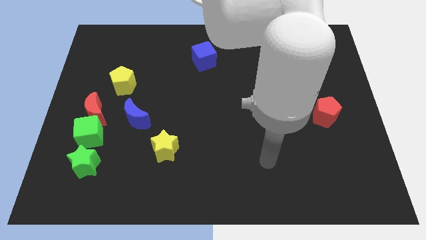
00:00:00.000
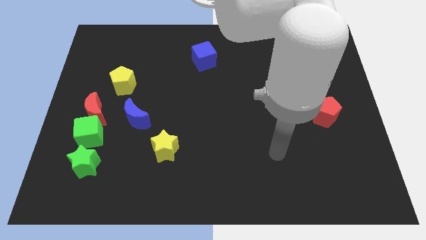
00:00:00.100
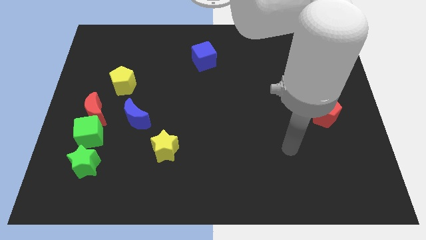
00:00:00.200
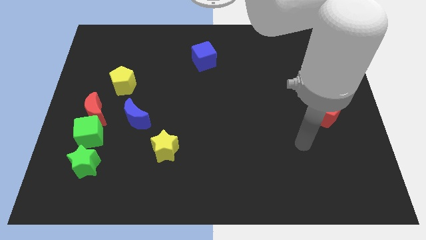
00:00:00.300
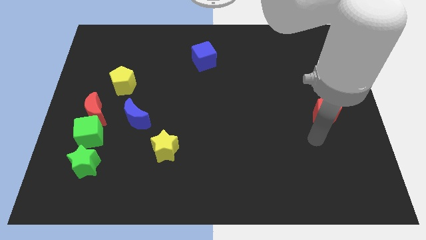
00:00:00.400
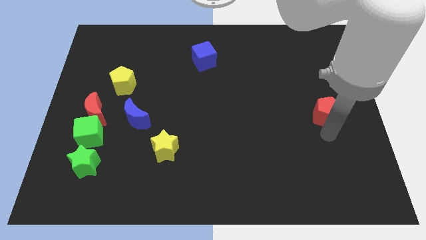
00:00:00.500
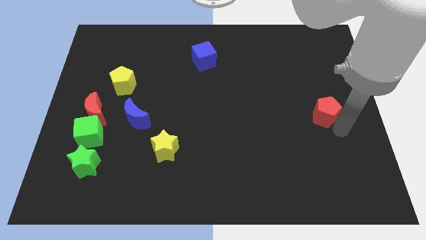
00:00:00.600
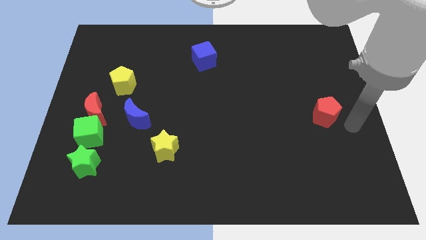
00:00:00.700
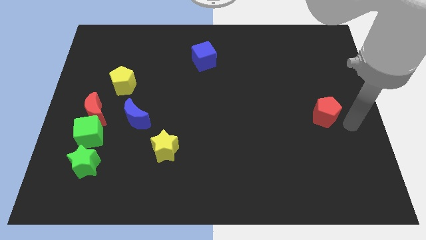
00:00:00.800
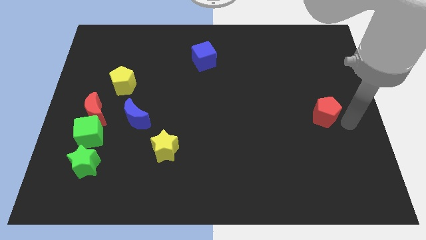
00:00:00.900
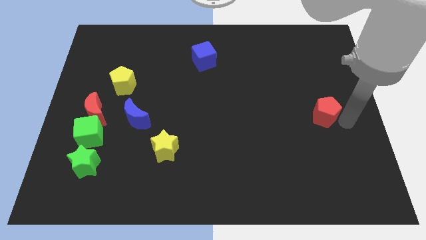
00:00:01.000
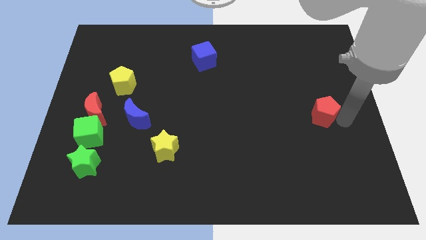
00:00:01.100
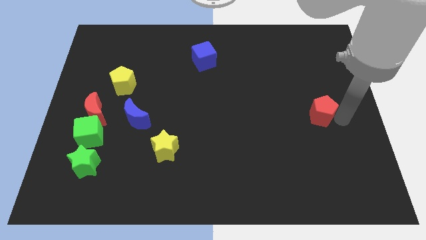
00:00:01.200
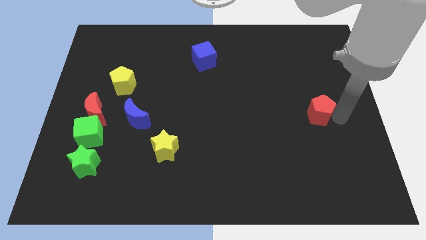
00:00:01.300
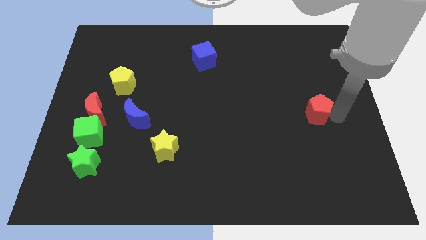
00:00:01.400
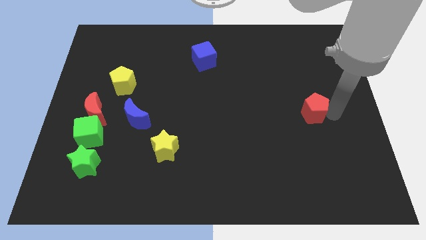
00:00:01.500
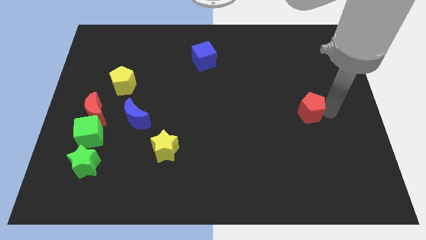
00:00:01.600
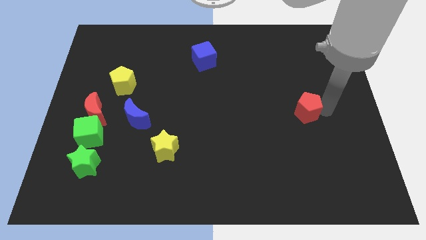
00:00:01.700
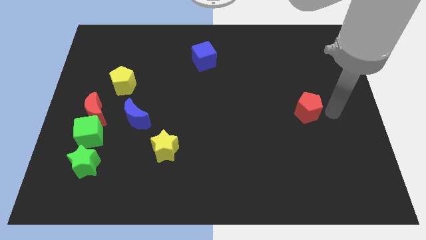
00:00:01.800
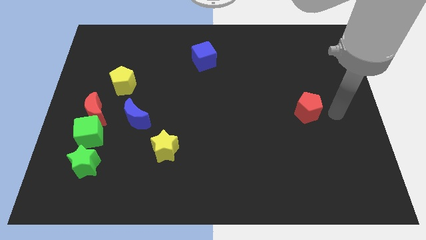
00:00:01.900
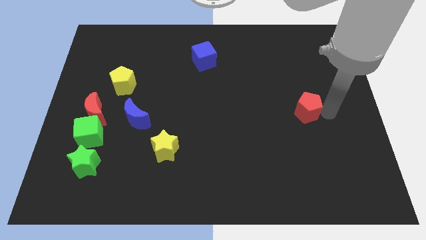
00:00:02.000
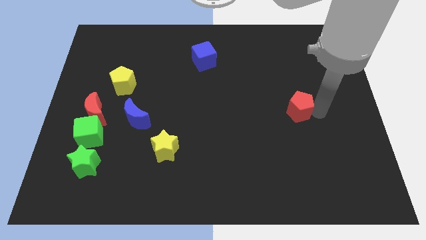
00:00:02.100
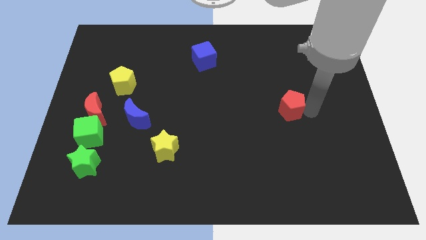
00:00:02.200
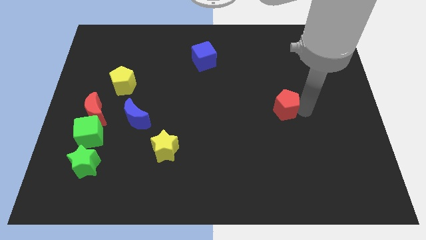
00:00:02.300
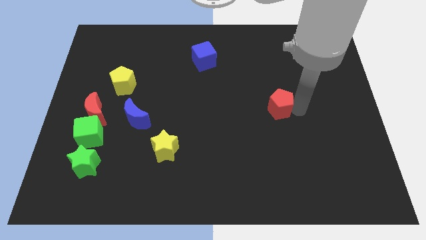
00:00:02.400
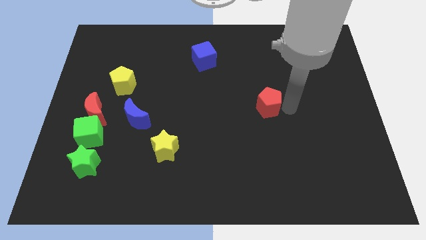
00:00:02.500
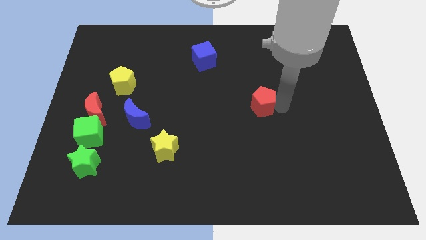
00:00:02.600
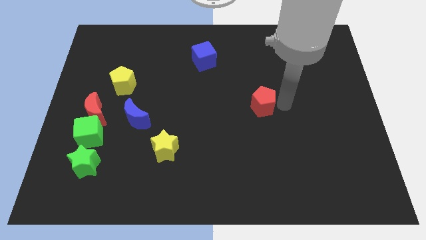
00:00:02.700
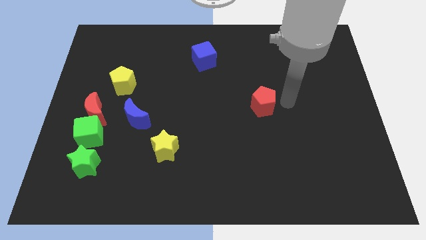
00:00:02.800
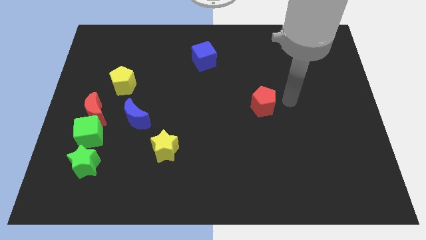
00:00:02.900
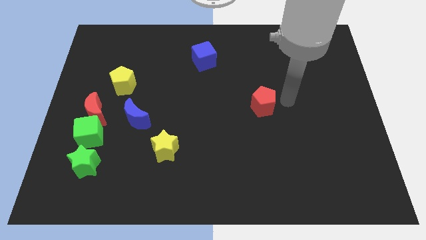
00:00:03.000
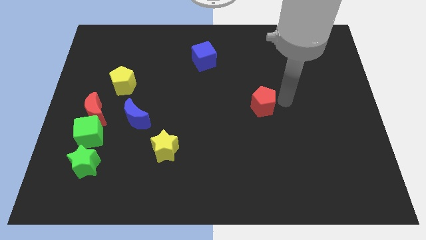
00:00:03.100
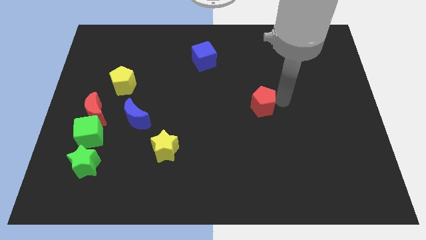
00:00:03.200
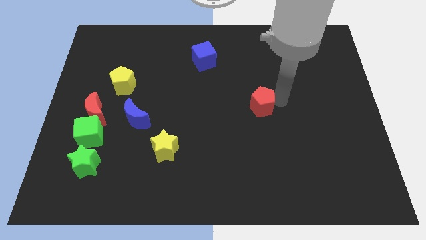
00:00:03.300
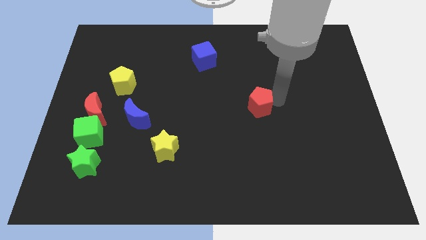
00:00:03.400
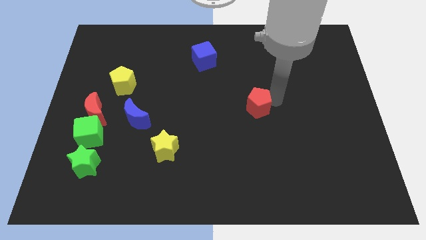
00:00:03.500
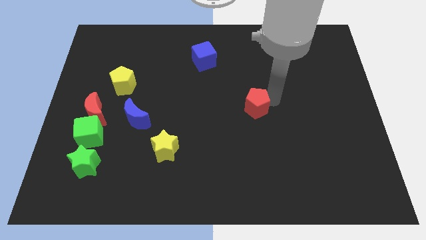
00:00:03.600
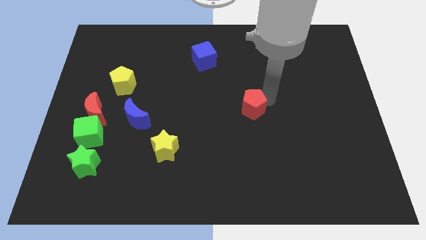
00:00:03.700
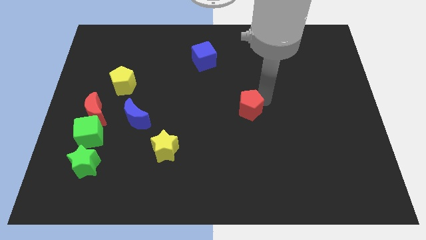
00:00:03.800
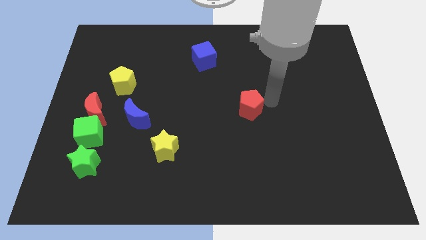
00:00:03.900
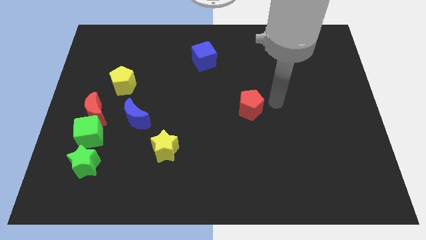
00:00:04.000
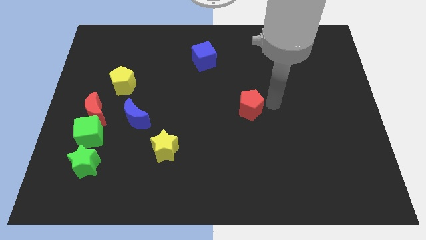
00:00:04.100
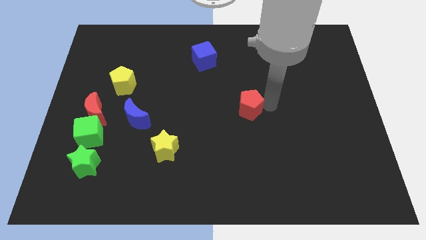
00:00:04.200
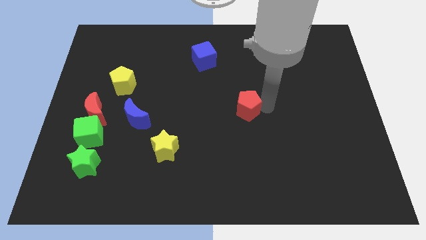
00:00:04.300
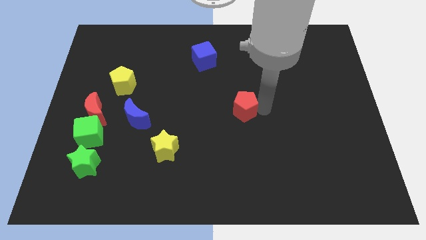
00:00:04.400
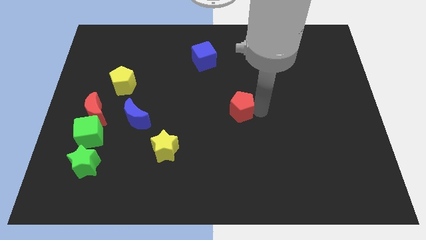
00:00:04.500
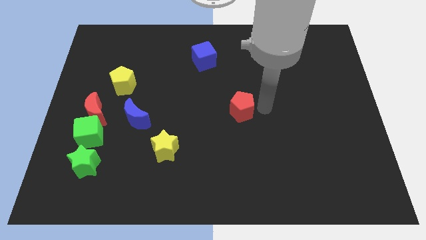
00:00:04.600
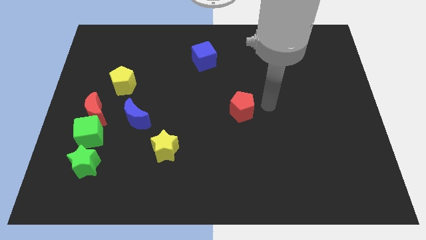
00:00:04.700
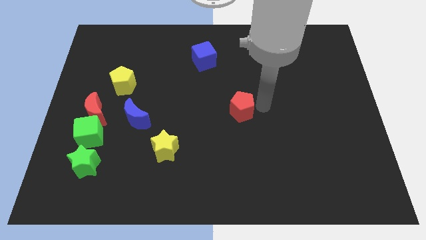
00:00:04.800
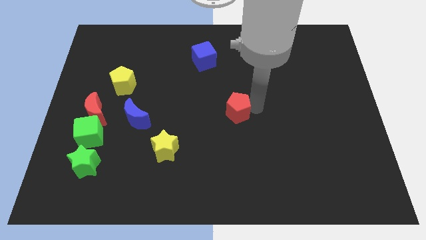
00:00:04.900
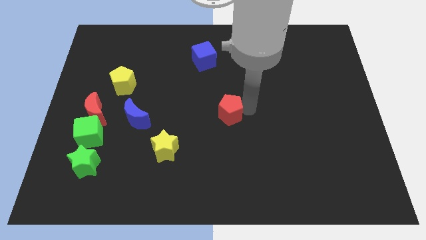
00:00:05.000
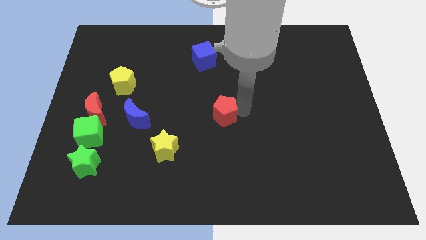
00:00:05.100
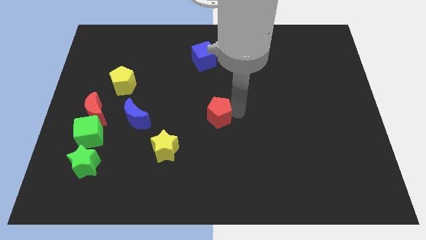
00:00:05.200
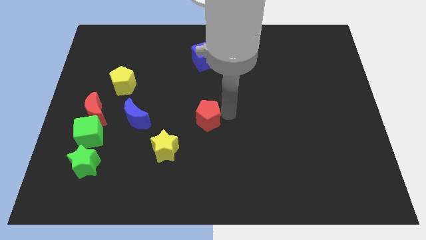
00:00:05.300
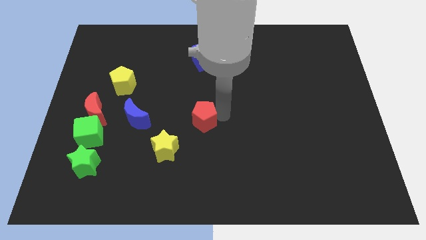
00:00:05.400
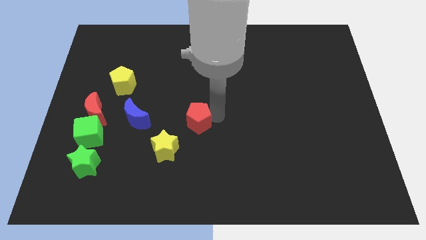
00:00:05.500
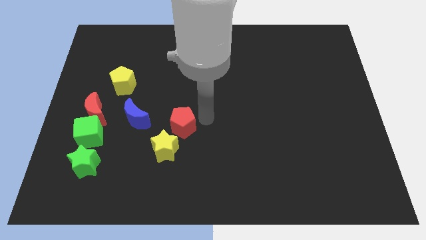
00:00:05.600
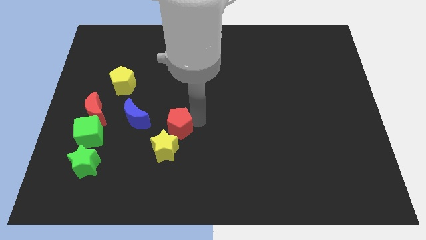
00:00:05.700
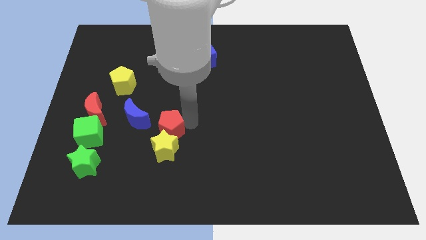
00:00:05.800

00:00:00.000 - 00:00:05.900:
move the red pentagon to the bottom right side of the blue moon

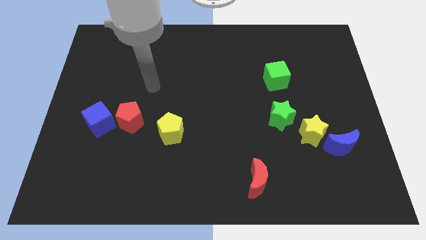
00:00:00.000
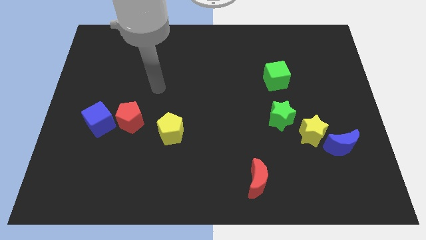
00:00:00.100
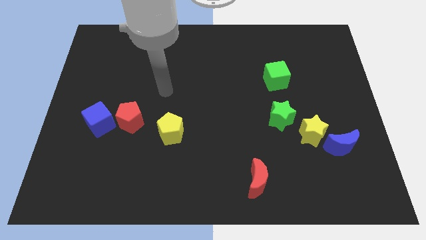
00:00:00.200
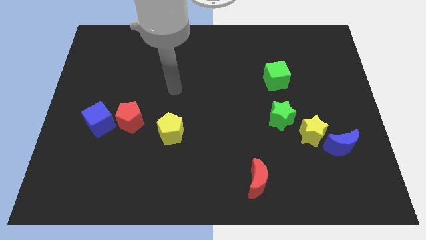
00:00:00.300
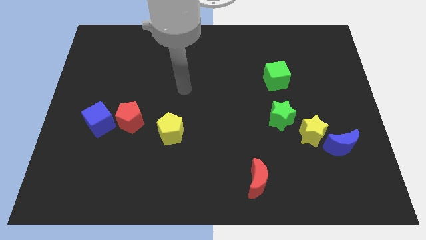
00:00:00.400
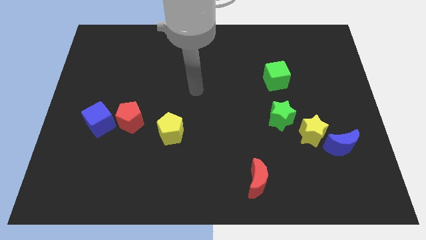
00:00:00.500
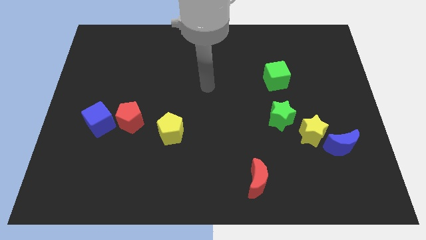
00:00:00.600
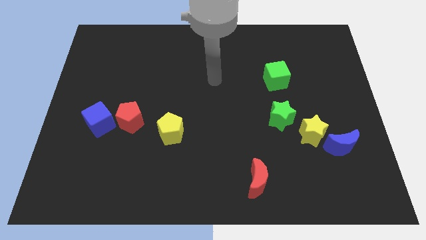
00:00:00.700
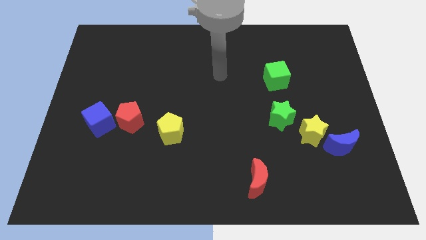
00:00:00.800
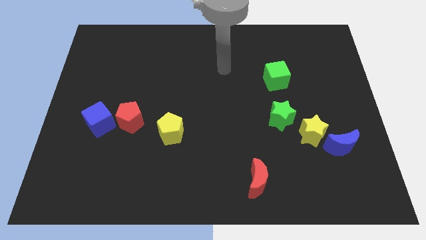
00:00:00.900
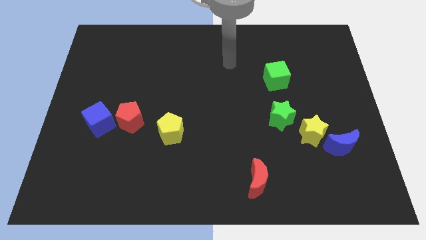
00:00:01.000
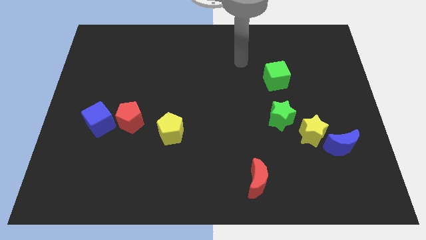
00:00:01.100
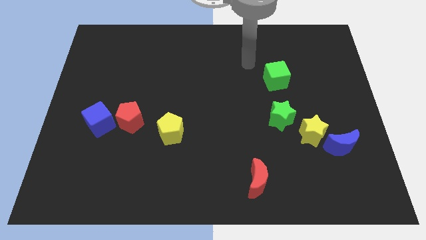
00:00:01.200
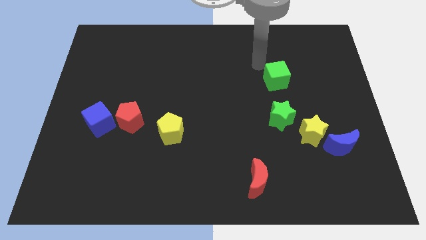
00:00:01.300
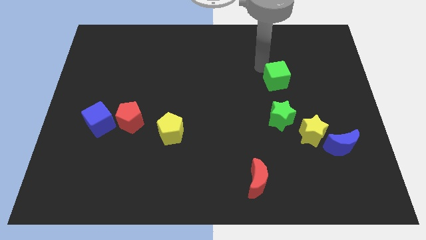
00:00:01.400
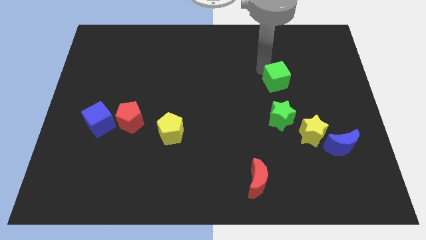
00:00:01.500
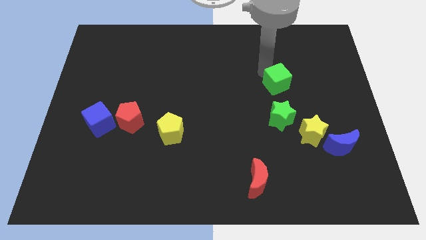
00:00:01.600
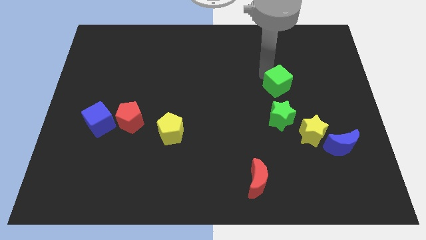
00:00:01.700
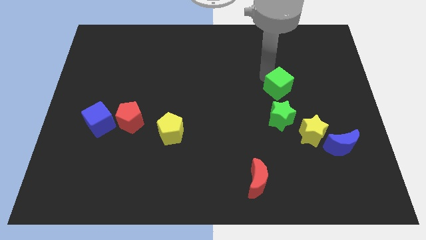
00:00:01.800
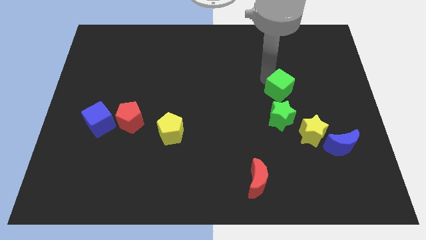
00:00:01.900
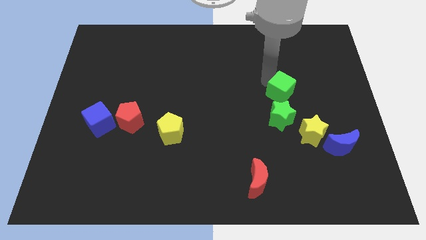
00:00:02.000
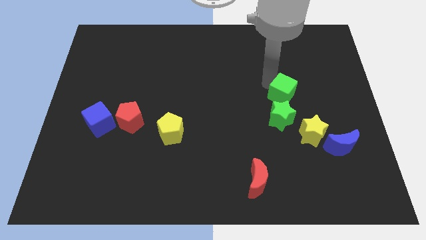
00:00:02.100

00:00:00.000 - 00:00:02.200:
push the green cube to the top right side of the green star
